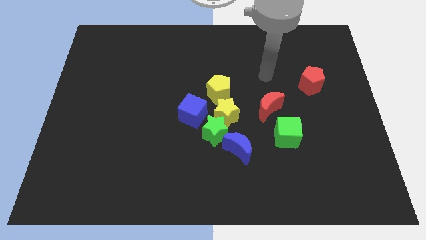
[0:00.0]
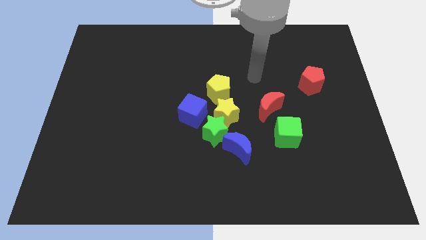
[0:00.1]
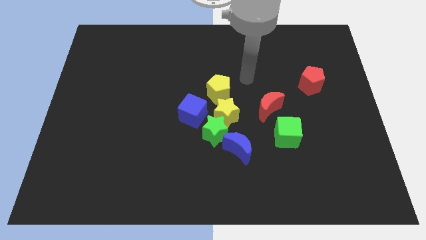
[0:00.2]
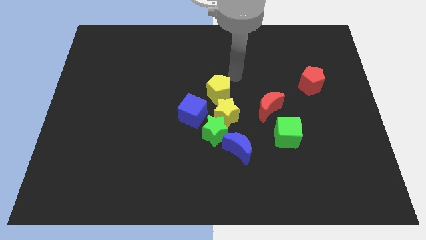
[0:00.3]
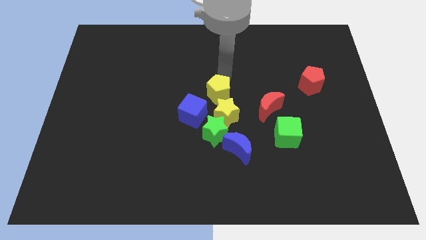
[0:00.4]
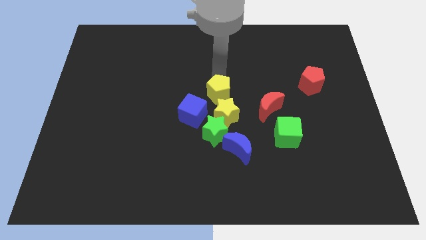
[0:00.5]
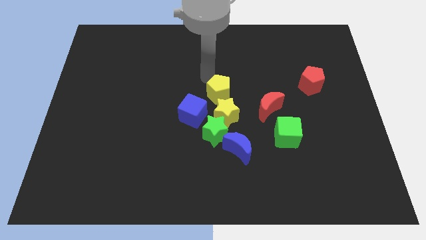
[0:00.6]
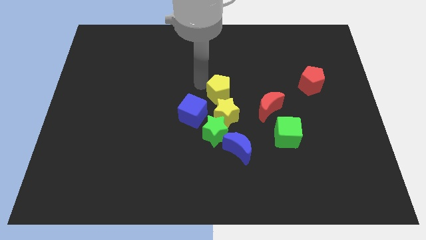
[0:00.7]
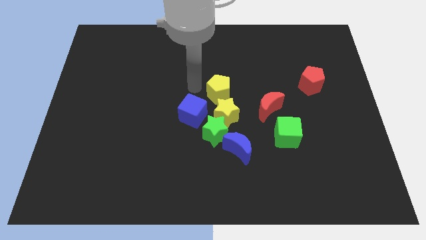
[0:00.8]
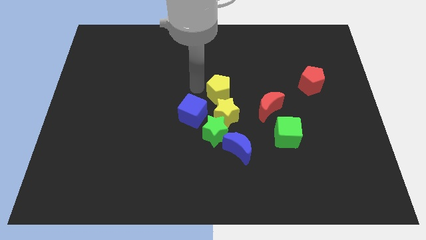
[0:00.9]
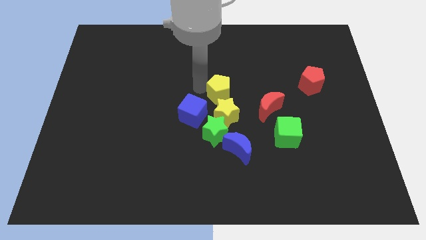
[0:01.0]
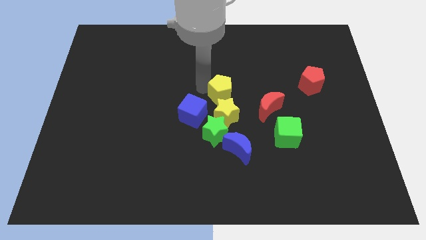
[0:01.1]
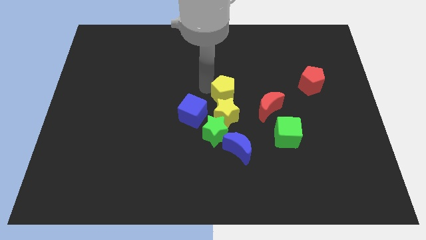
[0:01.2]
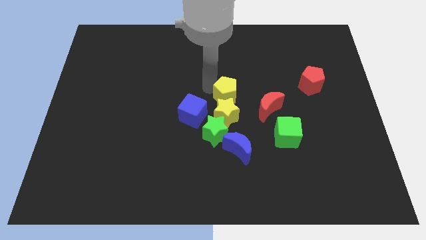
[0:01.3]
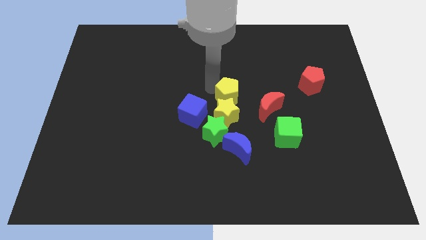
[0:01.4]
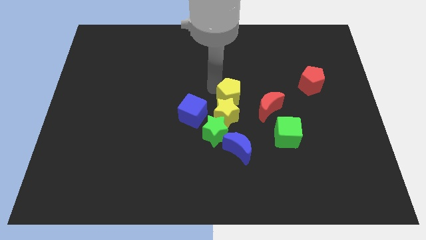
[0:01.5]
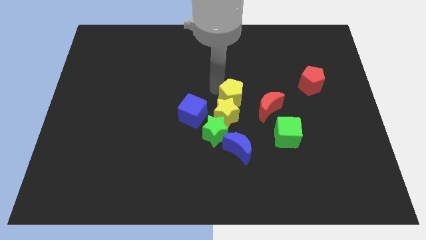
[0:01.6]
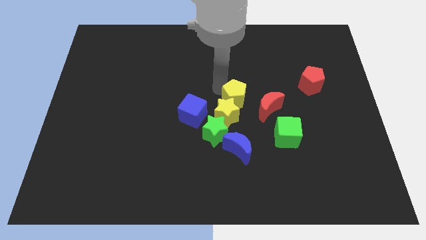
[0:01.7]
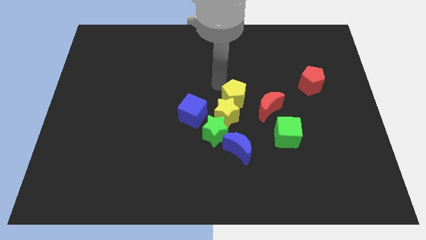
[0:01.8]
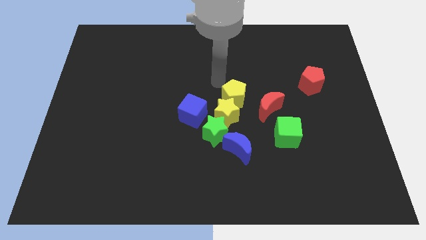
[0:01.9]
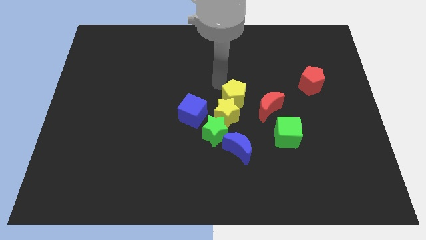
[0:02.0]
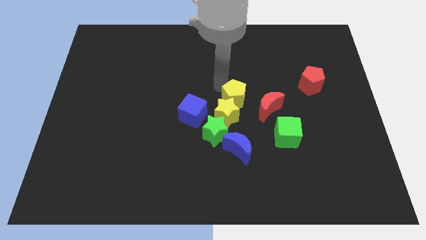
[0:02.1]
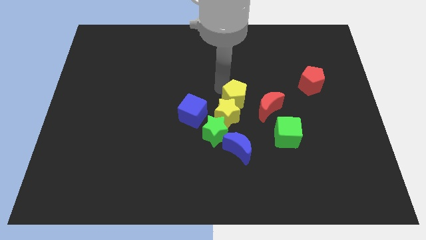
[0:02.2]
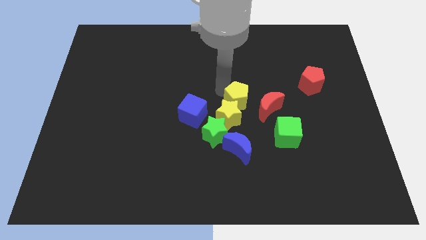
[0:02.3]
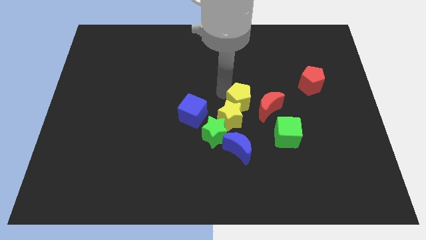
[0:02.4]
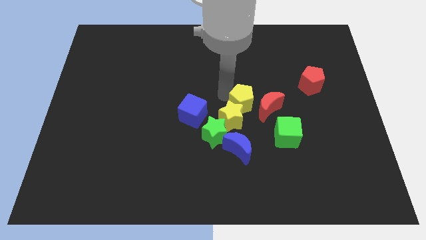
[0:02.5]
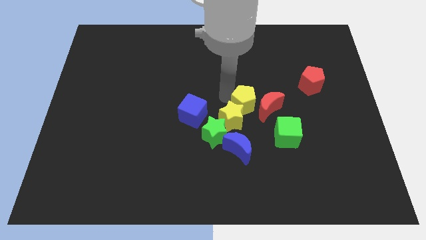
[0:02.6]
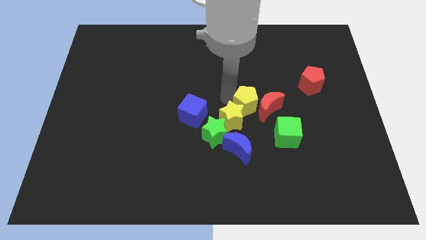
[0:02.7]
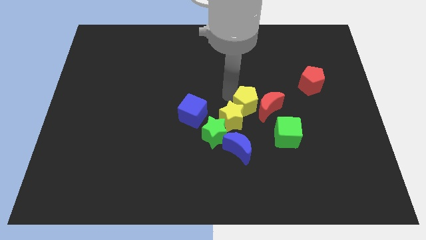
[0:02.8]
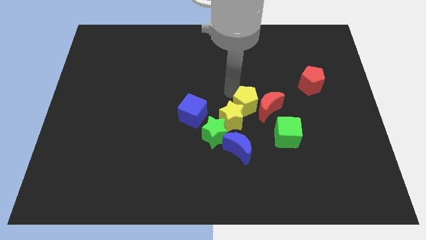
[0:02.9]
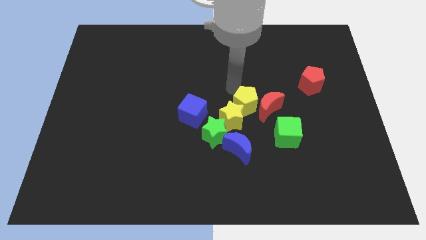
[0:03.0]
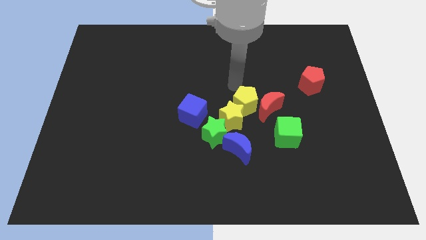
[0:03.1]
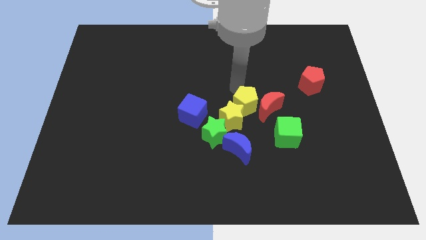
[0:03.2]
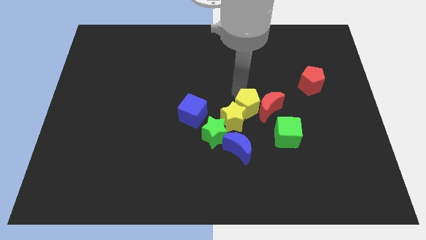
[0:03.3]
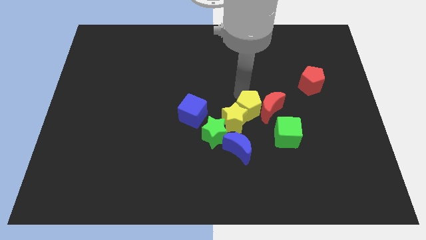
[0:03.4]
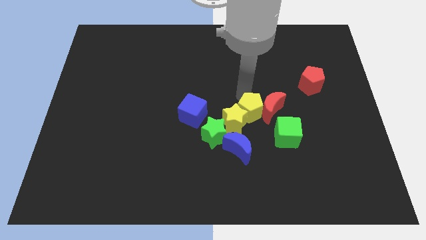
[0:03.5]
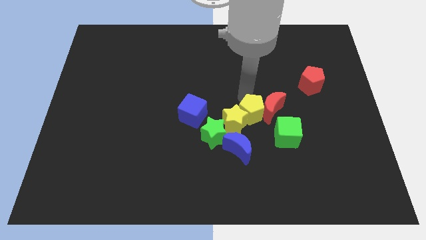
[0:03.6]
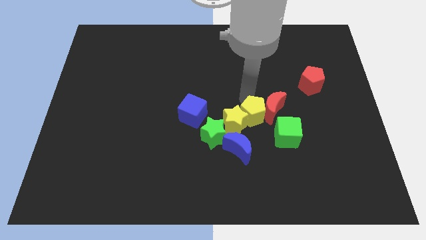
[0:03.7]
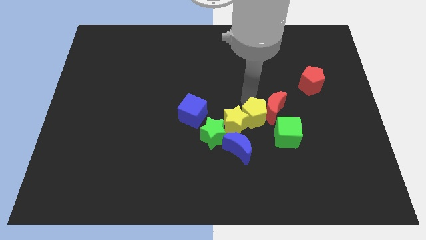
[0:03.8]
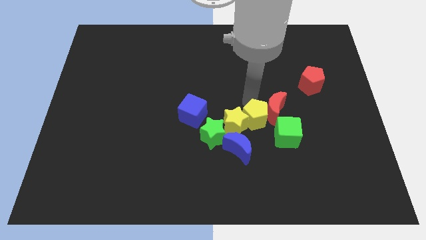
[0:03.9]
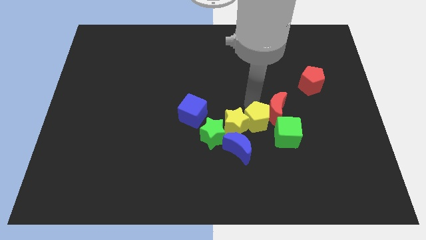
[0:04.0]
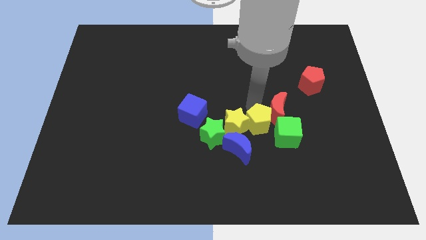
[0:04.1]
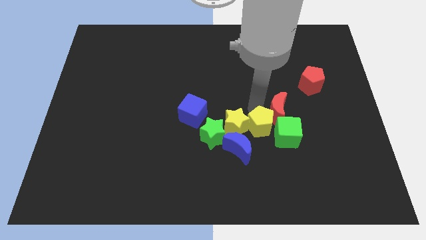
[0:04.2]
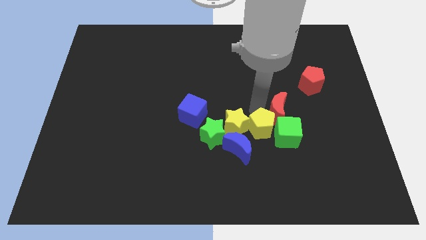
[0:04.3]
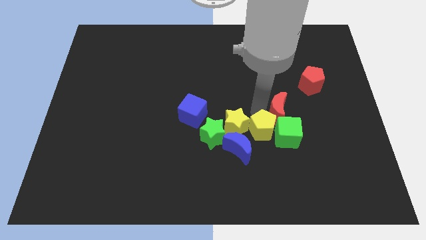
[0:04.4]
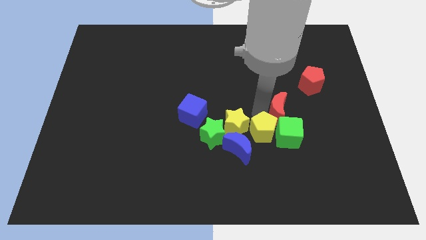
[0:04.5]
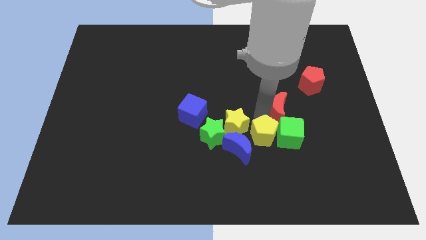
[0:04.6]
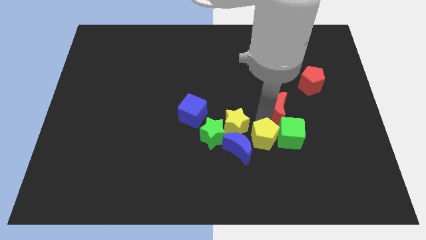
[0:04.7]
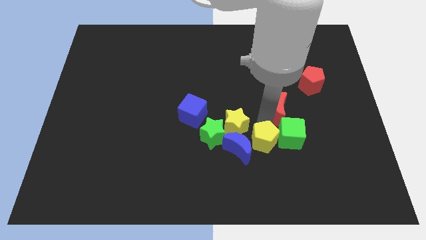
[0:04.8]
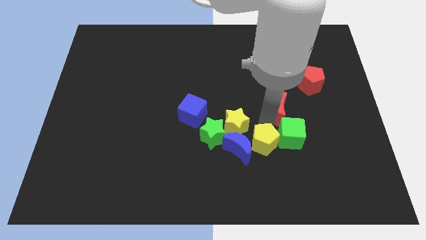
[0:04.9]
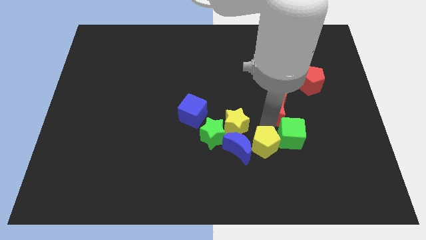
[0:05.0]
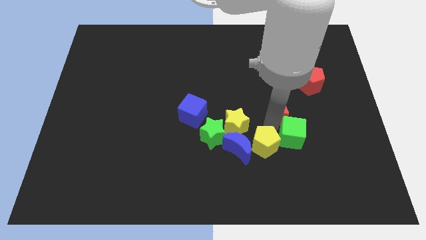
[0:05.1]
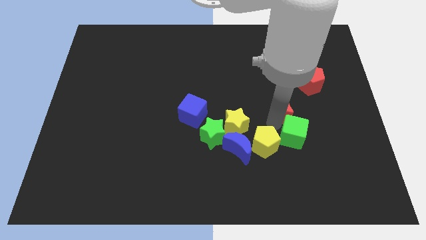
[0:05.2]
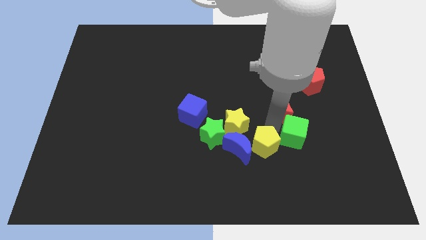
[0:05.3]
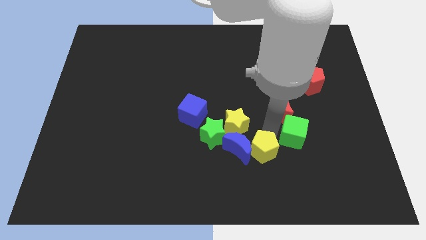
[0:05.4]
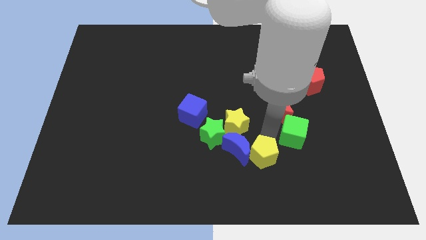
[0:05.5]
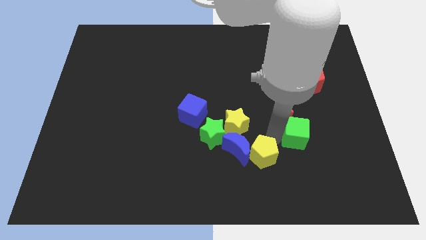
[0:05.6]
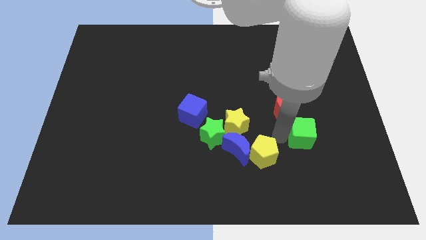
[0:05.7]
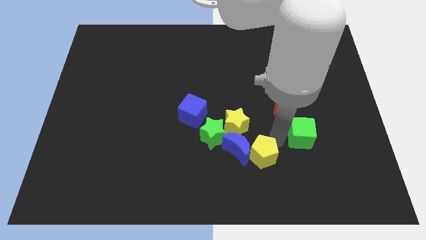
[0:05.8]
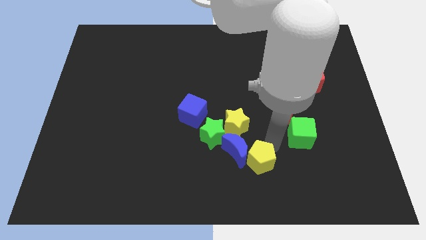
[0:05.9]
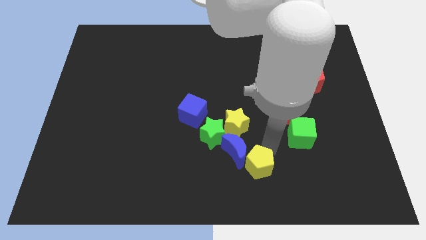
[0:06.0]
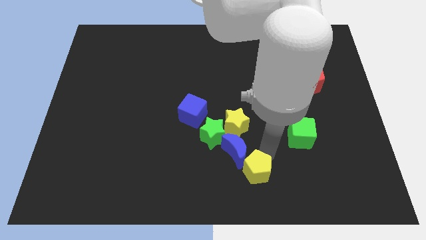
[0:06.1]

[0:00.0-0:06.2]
move the yellow pentagon to the bottom
